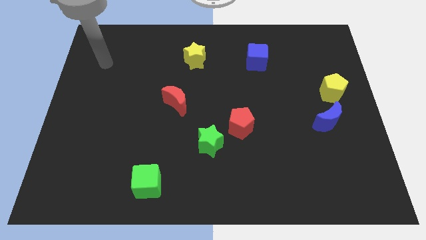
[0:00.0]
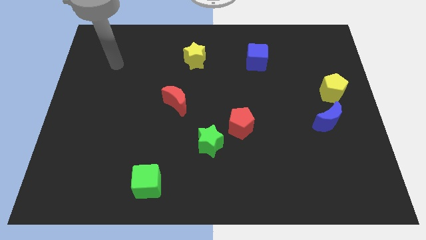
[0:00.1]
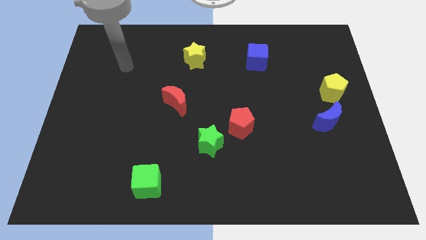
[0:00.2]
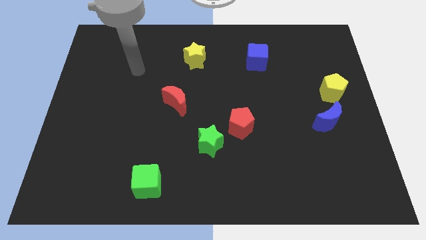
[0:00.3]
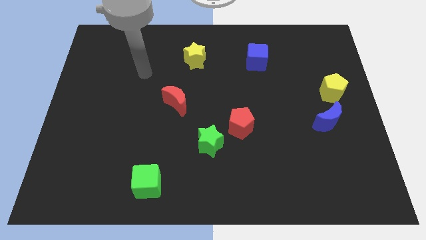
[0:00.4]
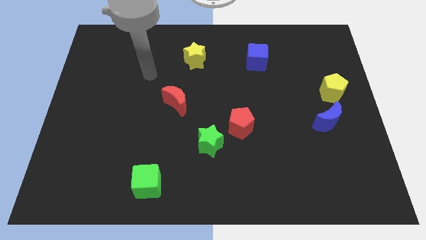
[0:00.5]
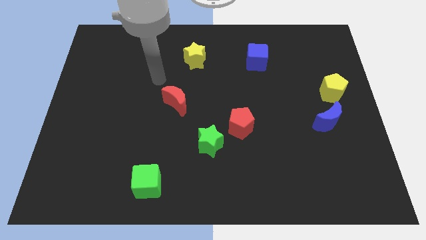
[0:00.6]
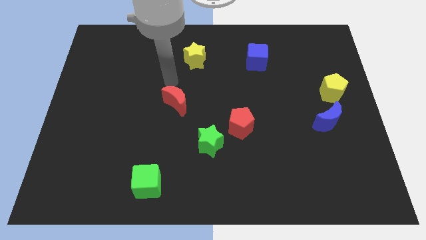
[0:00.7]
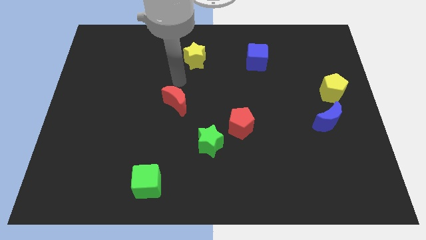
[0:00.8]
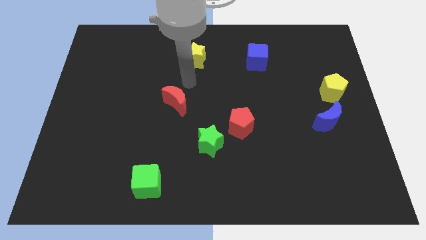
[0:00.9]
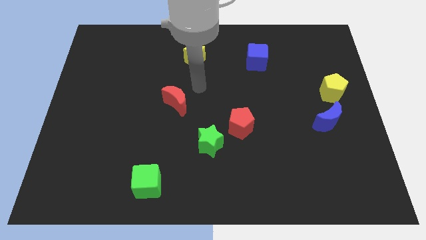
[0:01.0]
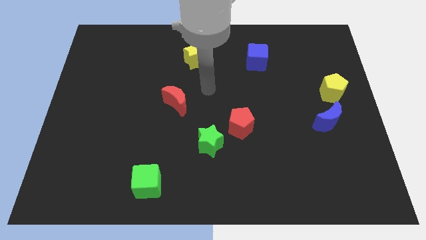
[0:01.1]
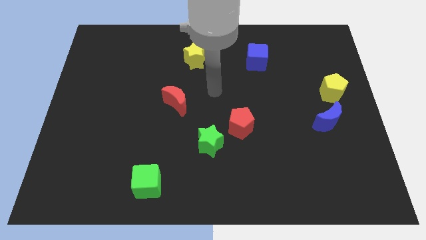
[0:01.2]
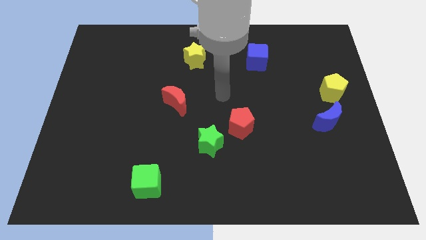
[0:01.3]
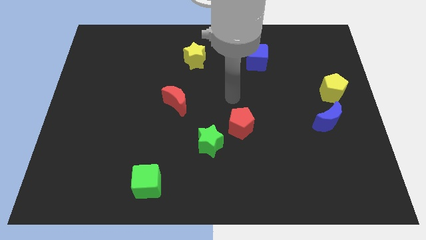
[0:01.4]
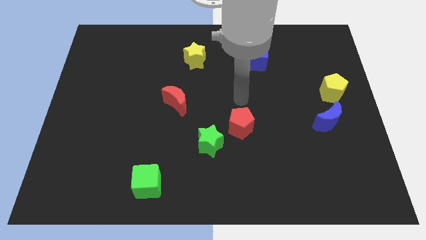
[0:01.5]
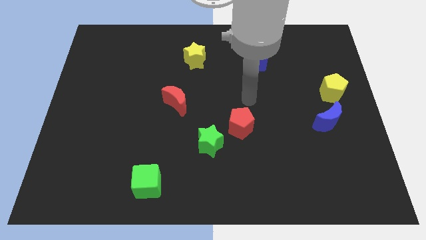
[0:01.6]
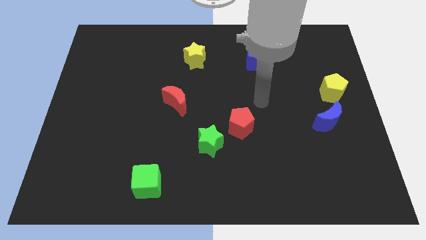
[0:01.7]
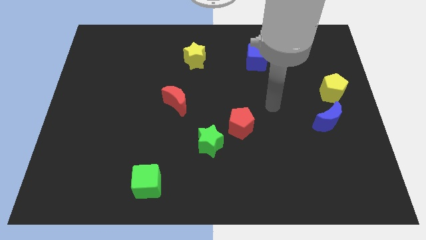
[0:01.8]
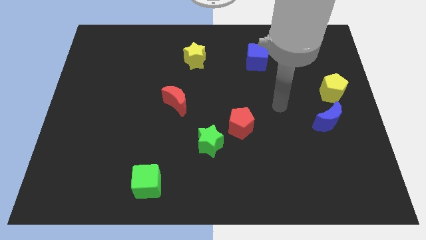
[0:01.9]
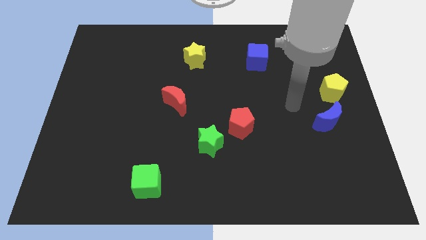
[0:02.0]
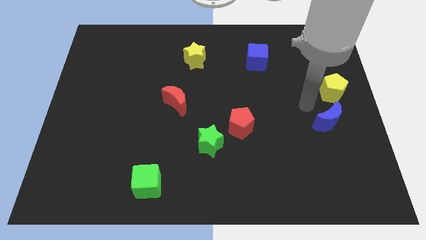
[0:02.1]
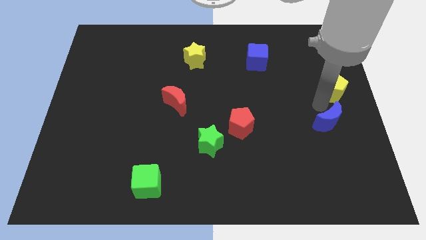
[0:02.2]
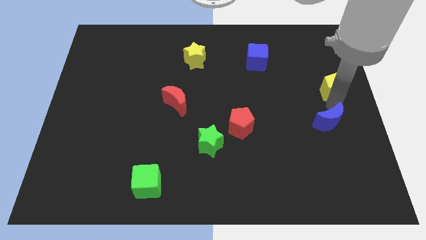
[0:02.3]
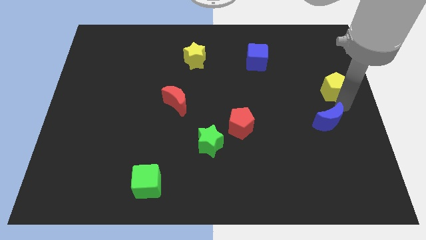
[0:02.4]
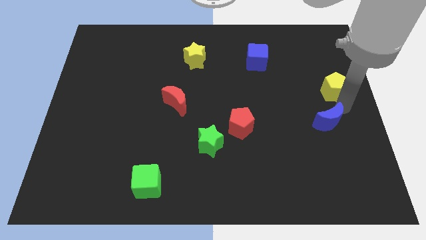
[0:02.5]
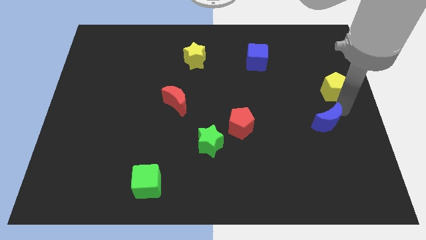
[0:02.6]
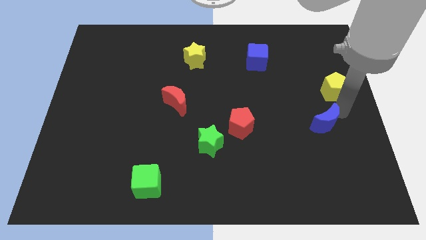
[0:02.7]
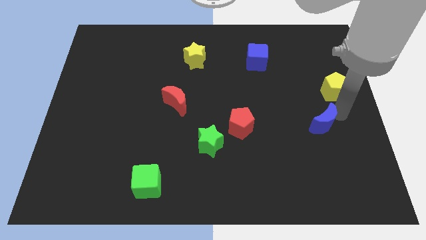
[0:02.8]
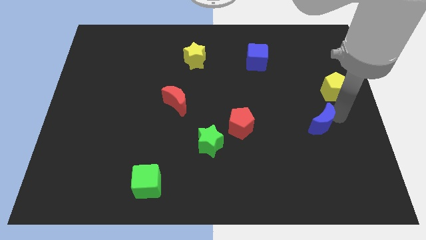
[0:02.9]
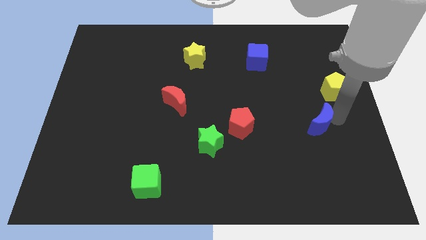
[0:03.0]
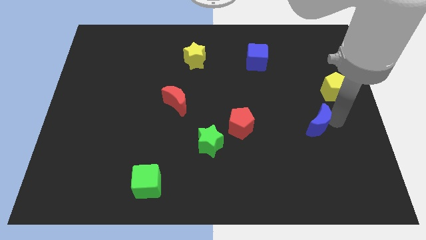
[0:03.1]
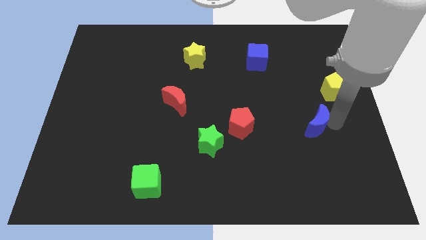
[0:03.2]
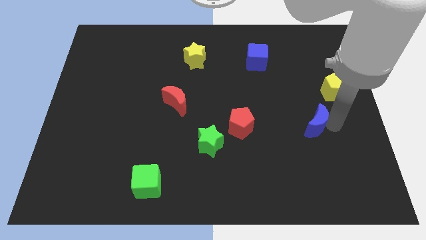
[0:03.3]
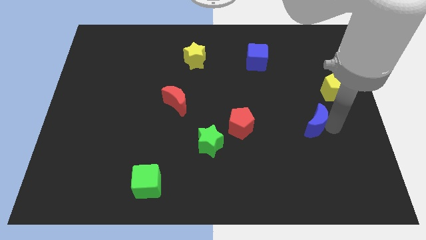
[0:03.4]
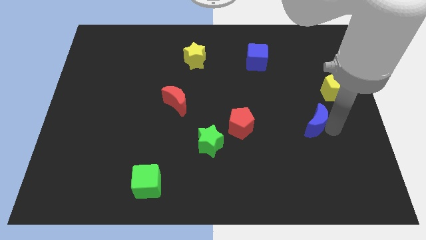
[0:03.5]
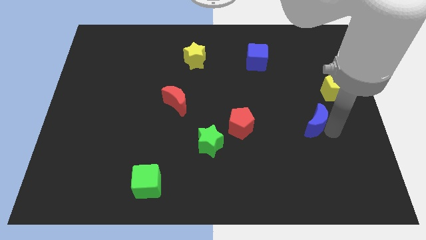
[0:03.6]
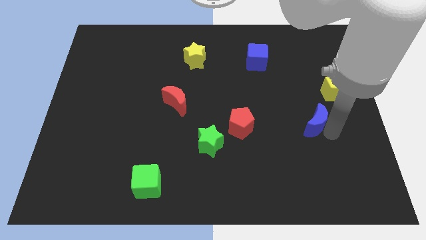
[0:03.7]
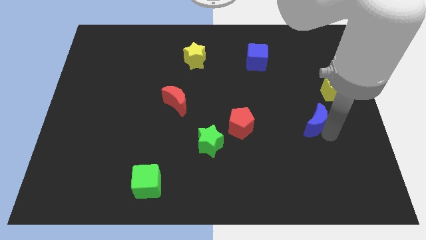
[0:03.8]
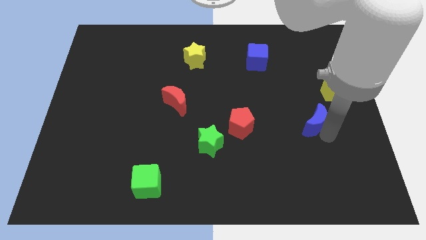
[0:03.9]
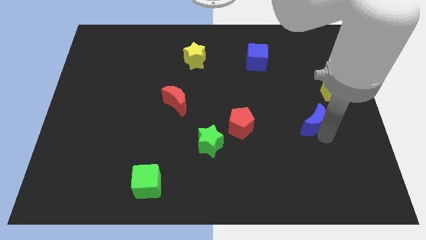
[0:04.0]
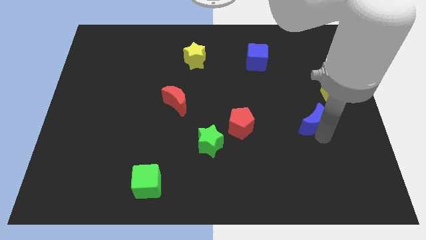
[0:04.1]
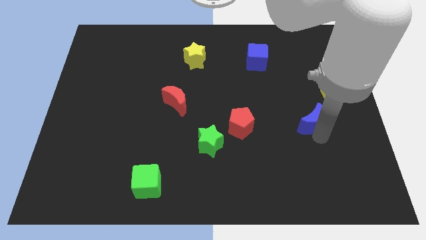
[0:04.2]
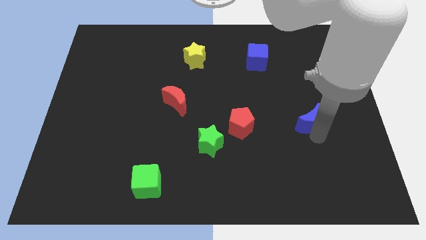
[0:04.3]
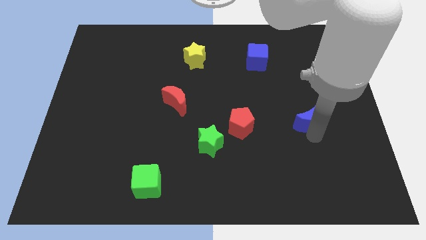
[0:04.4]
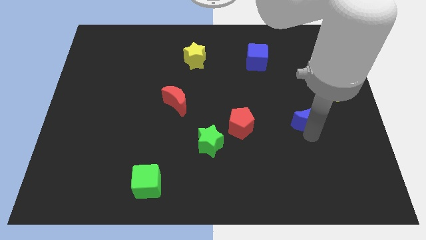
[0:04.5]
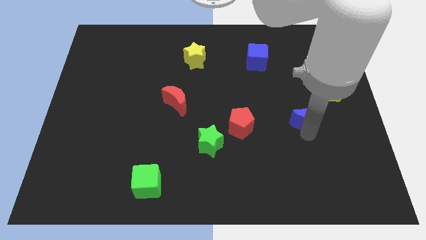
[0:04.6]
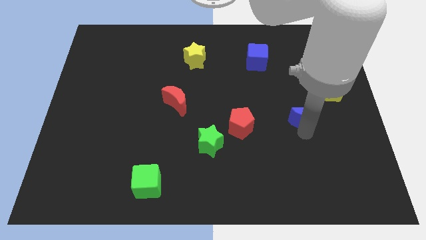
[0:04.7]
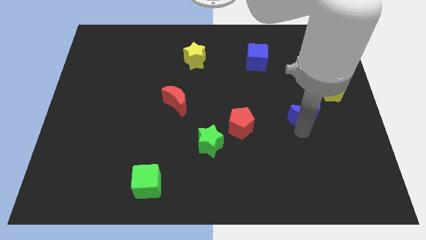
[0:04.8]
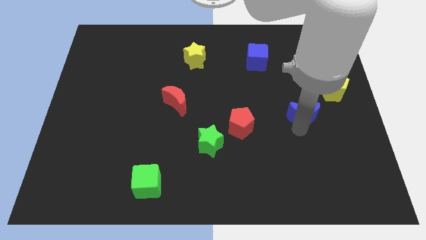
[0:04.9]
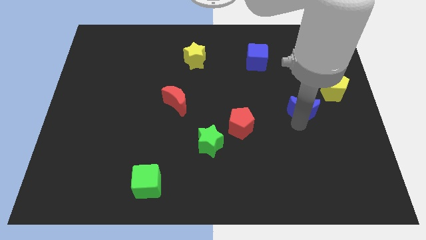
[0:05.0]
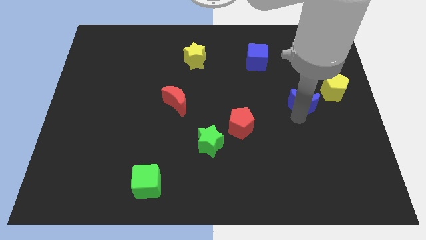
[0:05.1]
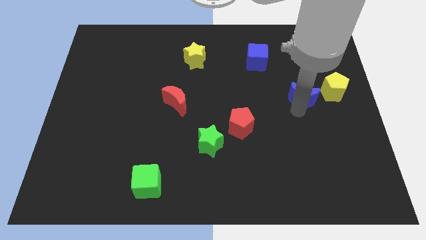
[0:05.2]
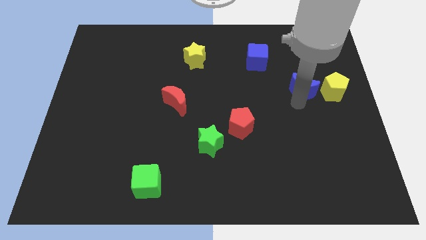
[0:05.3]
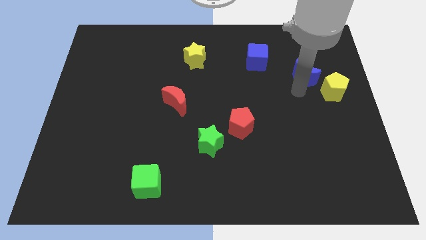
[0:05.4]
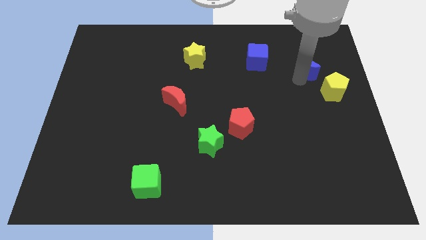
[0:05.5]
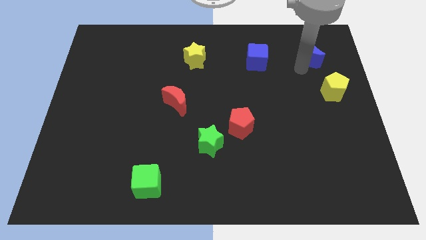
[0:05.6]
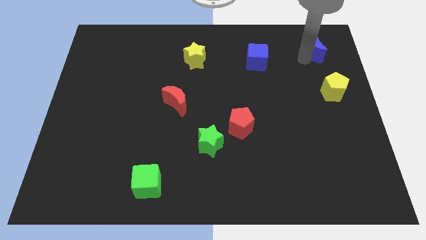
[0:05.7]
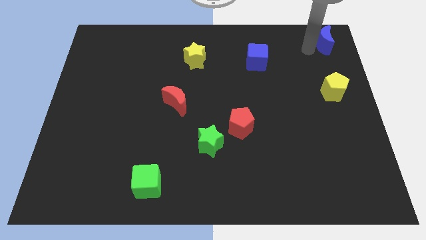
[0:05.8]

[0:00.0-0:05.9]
put the blue moon to the top right corner
